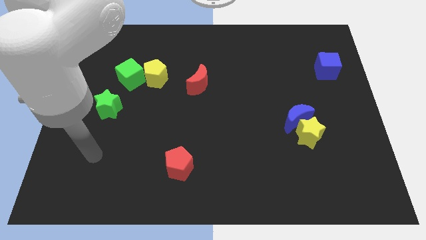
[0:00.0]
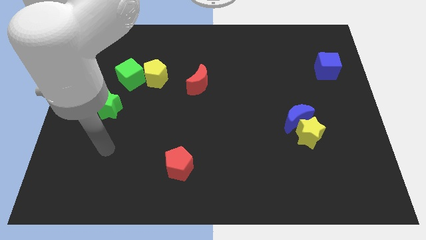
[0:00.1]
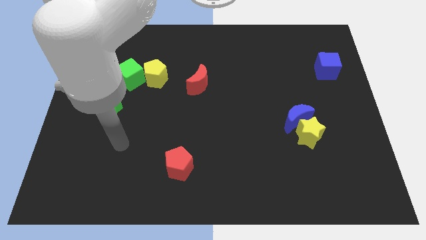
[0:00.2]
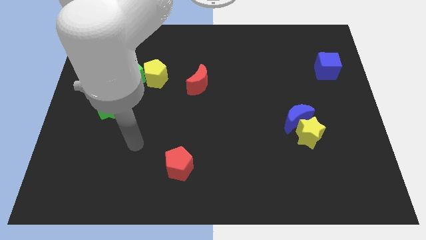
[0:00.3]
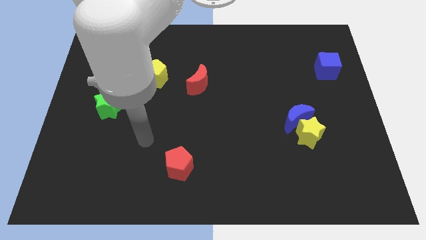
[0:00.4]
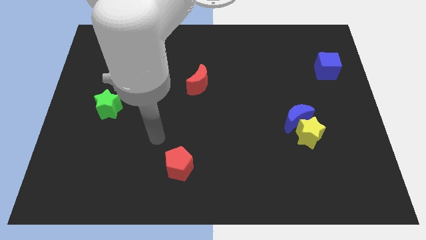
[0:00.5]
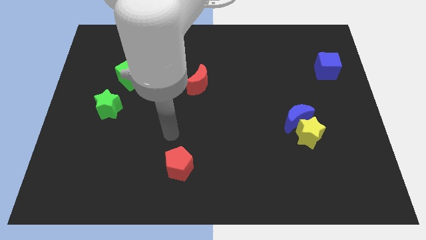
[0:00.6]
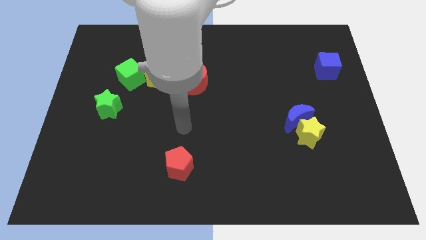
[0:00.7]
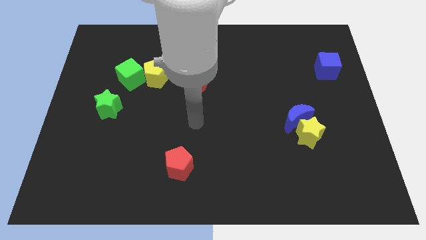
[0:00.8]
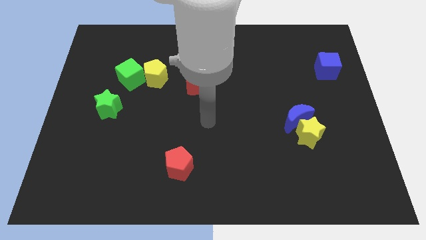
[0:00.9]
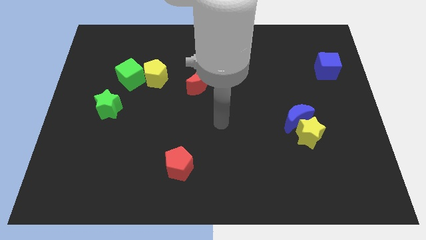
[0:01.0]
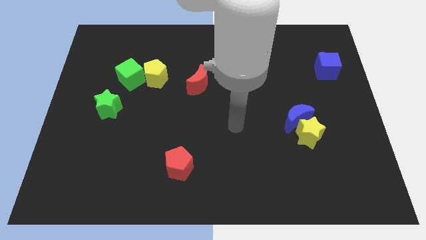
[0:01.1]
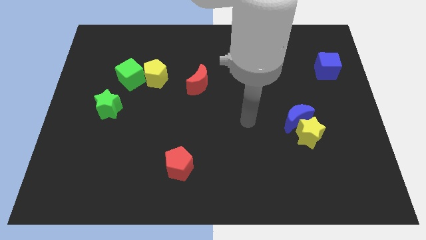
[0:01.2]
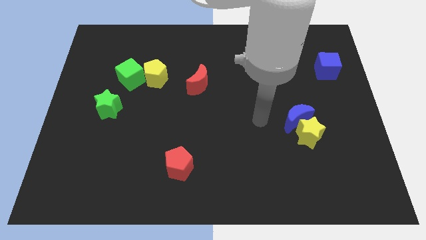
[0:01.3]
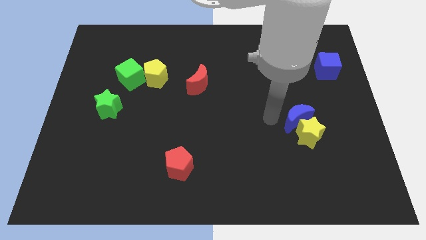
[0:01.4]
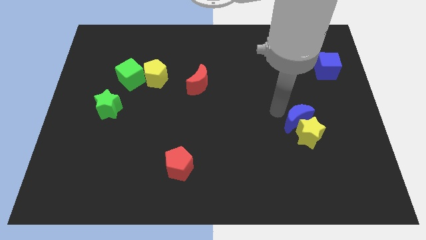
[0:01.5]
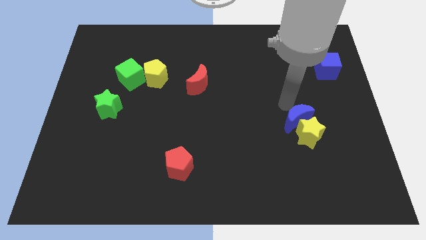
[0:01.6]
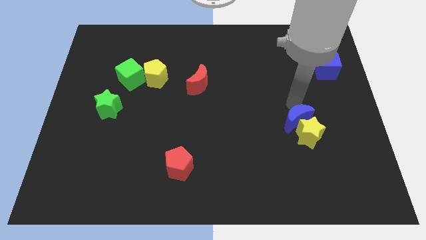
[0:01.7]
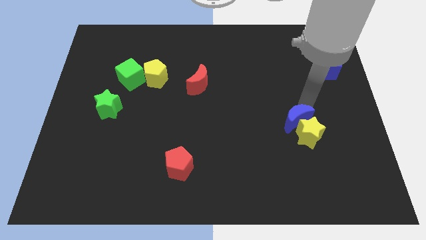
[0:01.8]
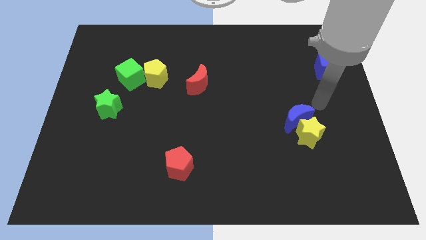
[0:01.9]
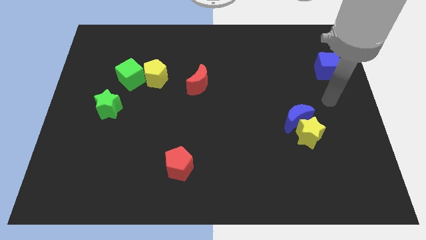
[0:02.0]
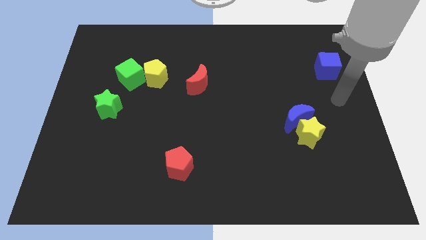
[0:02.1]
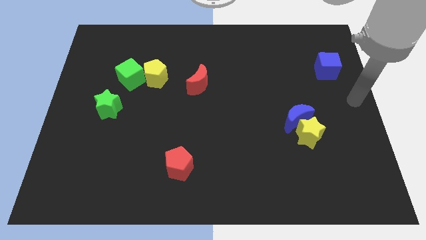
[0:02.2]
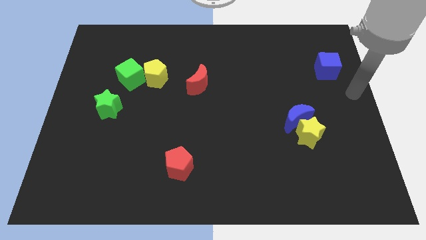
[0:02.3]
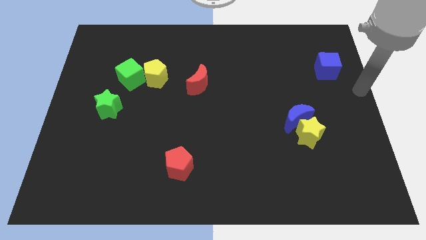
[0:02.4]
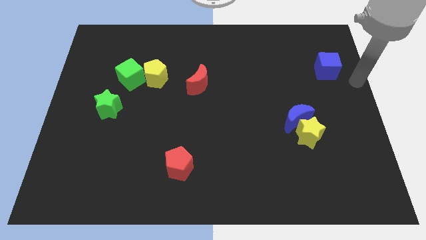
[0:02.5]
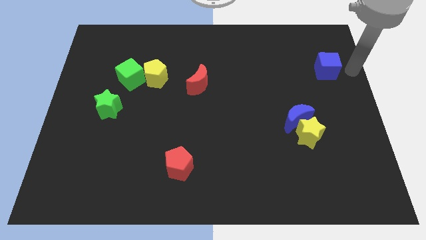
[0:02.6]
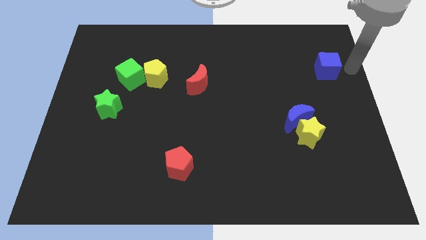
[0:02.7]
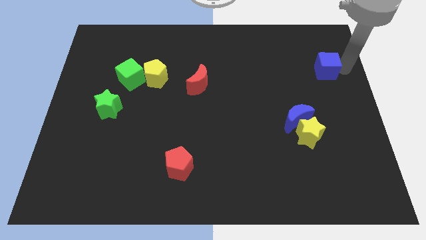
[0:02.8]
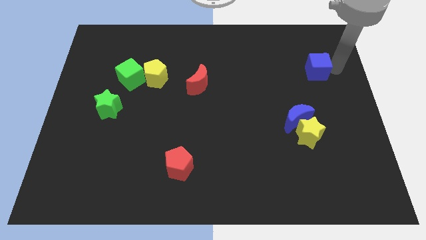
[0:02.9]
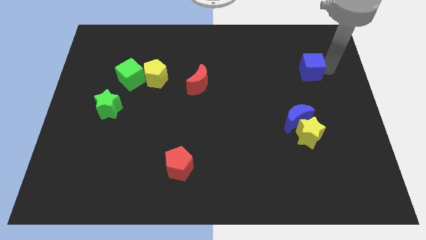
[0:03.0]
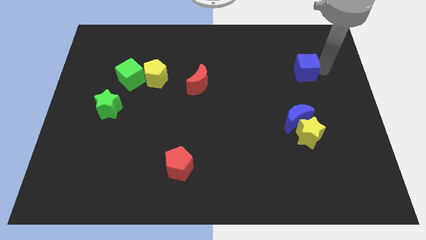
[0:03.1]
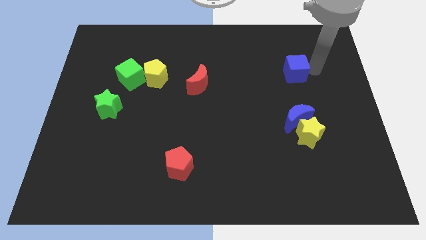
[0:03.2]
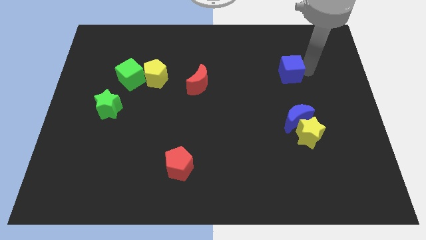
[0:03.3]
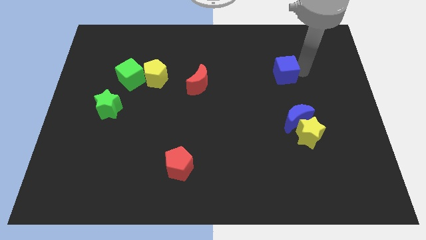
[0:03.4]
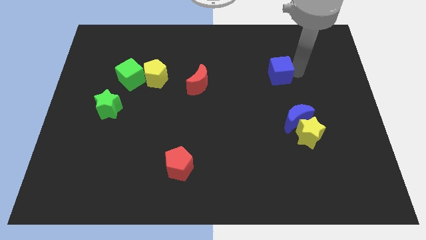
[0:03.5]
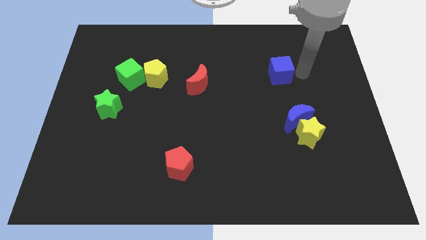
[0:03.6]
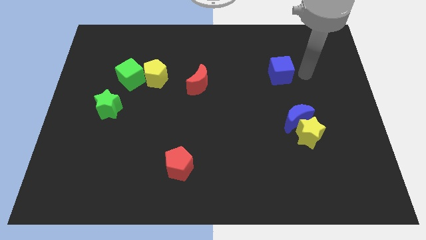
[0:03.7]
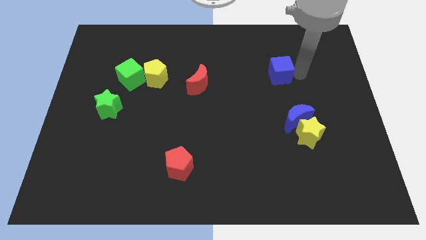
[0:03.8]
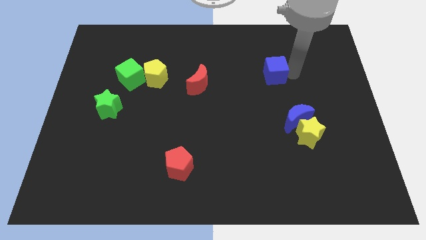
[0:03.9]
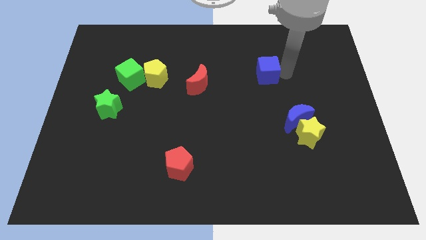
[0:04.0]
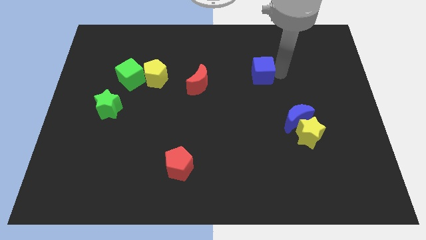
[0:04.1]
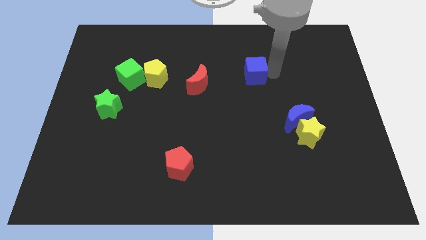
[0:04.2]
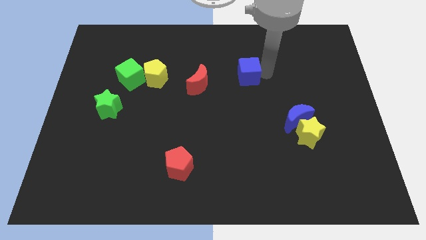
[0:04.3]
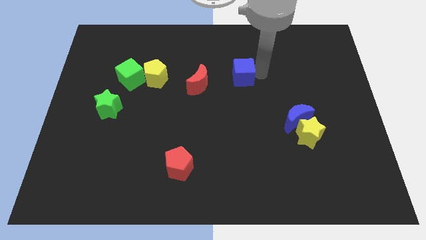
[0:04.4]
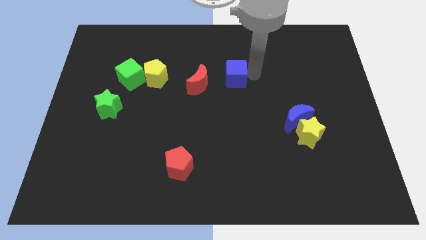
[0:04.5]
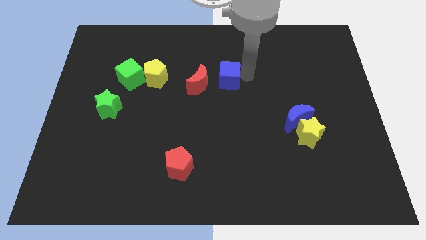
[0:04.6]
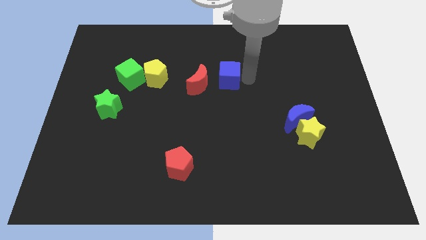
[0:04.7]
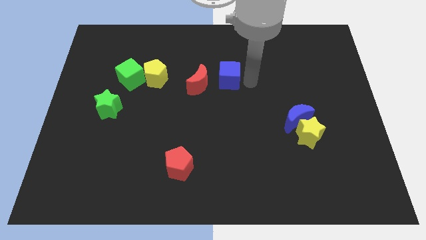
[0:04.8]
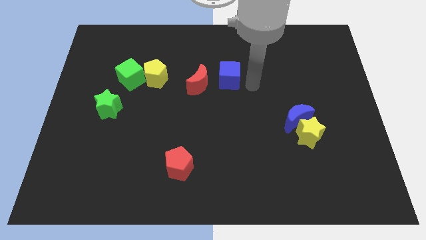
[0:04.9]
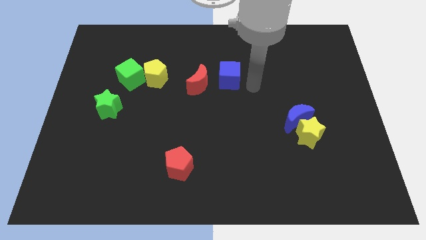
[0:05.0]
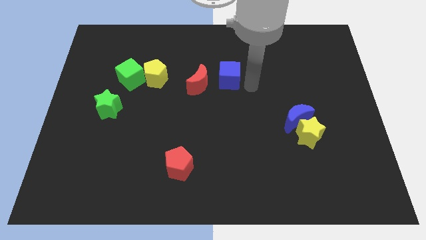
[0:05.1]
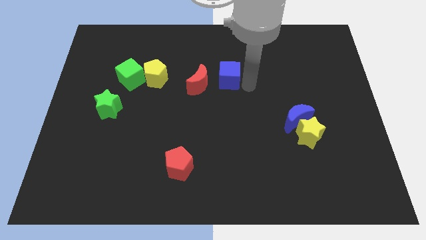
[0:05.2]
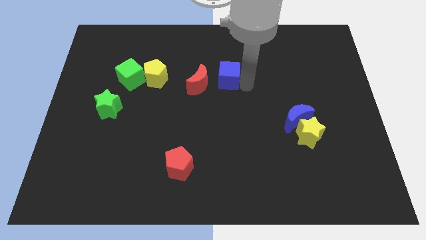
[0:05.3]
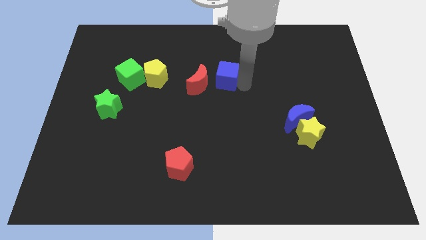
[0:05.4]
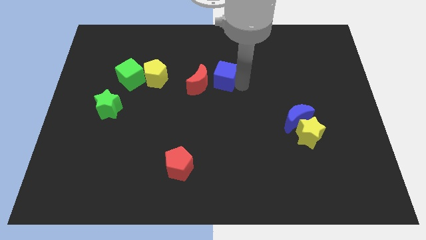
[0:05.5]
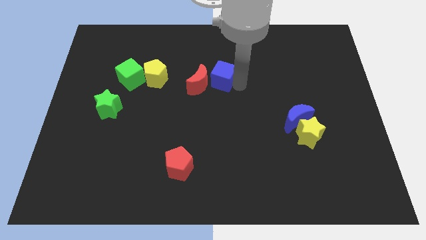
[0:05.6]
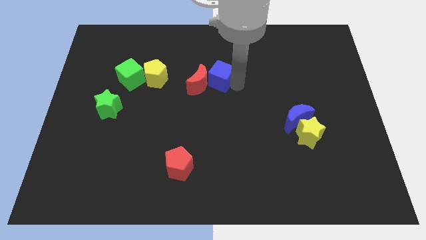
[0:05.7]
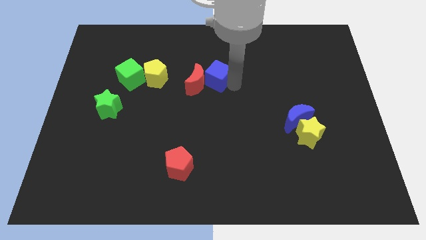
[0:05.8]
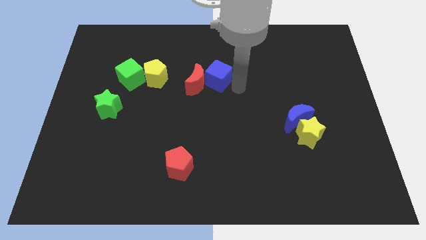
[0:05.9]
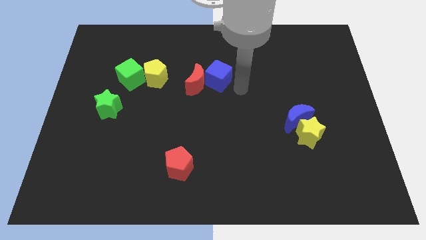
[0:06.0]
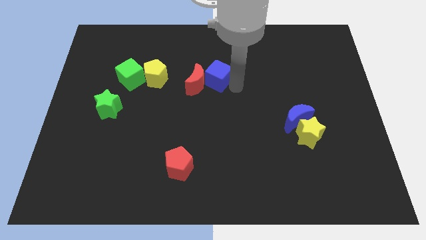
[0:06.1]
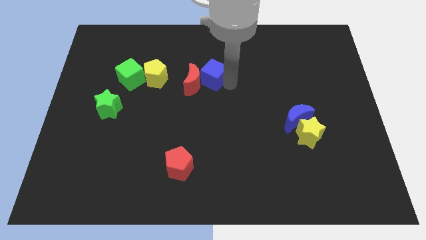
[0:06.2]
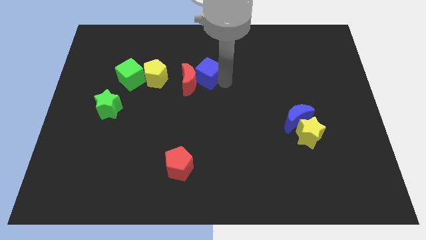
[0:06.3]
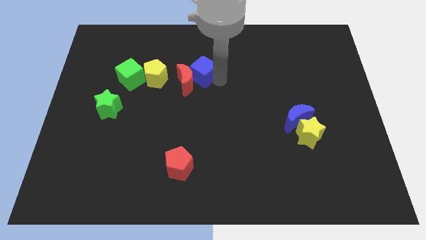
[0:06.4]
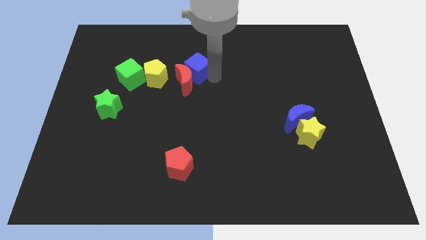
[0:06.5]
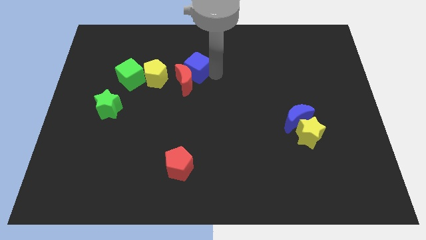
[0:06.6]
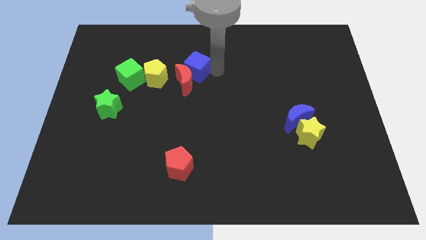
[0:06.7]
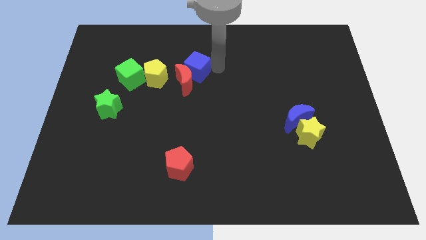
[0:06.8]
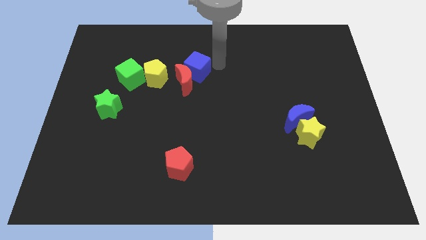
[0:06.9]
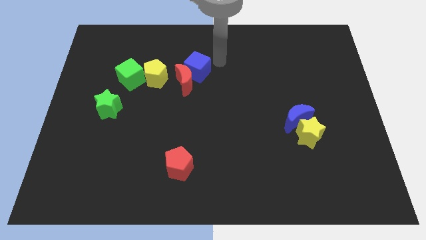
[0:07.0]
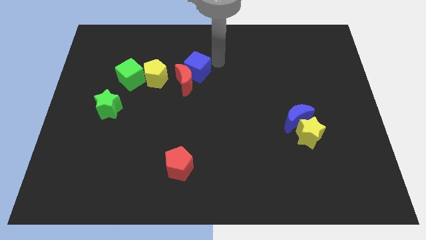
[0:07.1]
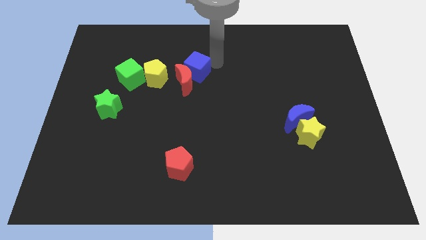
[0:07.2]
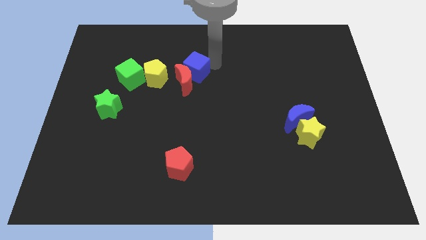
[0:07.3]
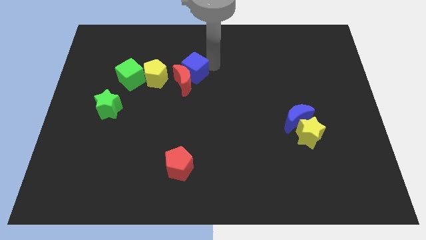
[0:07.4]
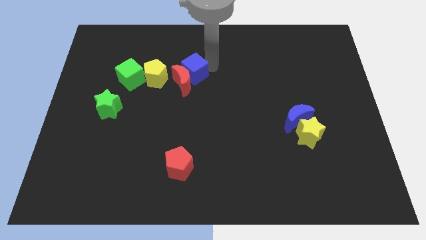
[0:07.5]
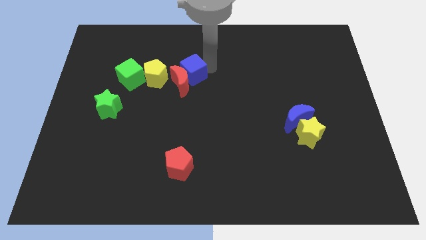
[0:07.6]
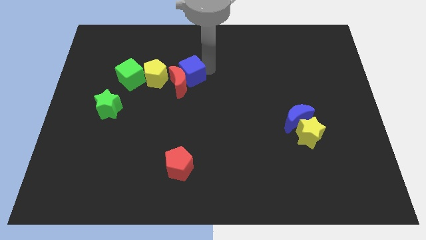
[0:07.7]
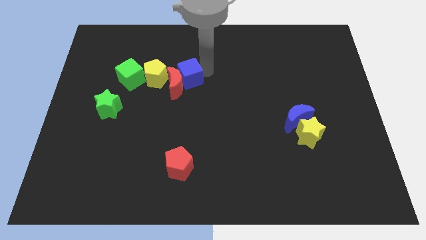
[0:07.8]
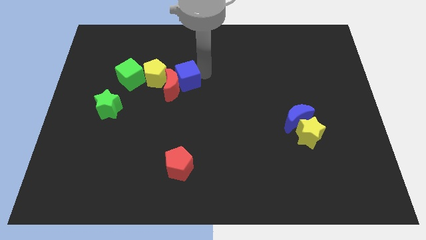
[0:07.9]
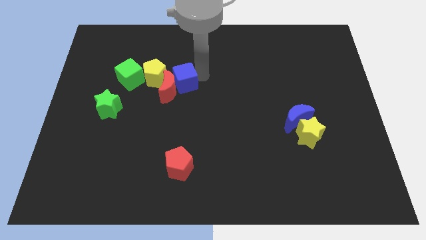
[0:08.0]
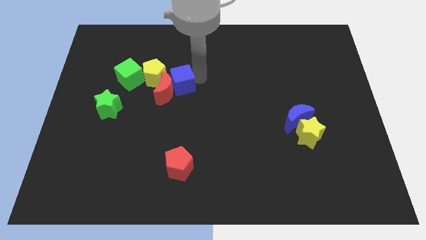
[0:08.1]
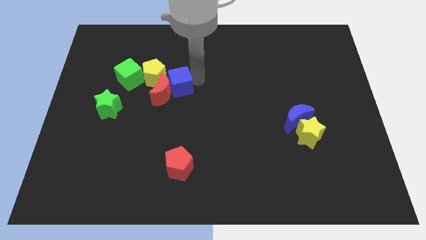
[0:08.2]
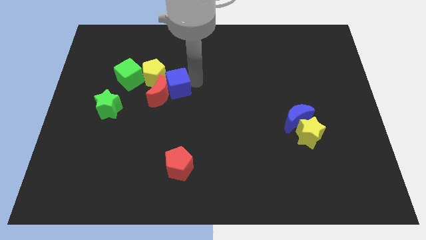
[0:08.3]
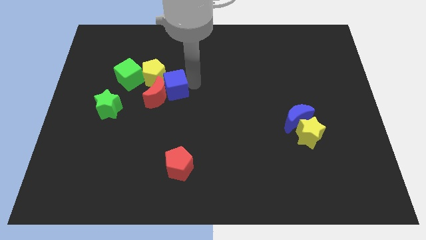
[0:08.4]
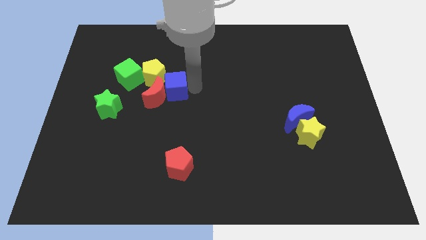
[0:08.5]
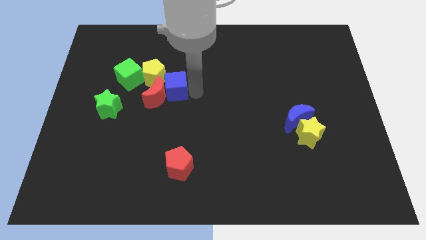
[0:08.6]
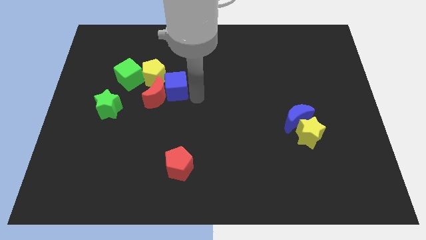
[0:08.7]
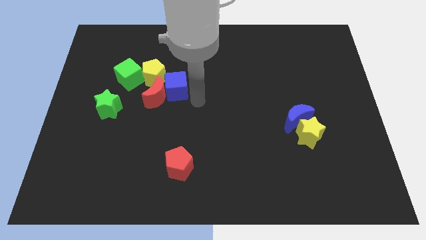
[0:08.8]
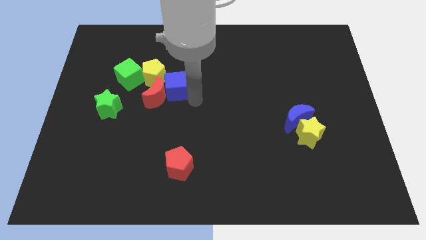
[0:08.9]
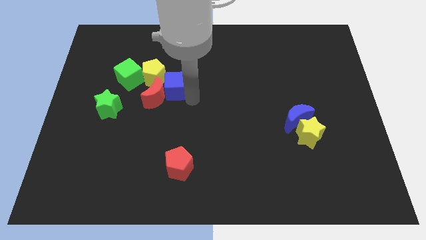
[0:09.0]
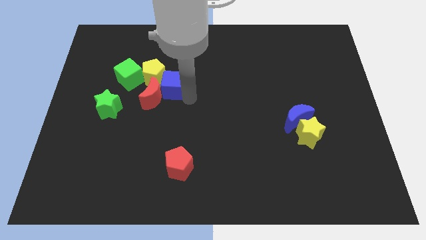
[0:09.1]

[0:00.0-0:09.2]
move the blue cube next to the yellow pentagon
